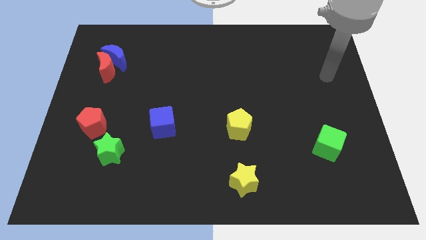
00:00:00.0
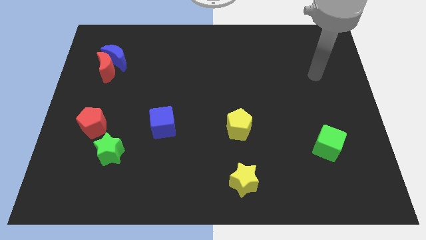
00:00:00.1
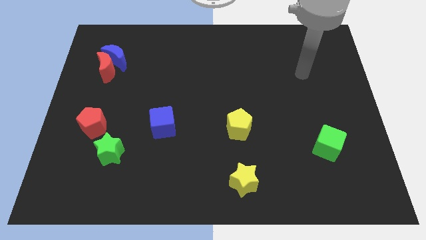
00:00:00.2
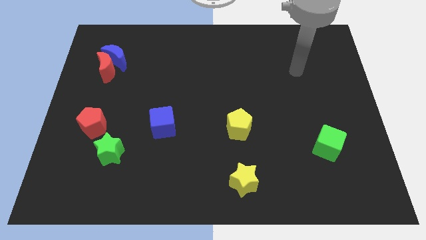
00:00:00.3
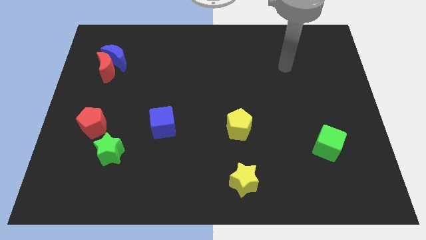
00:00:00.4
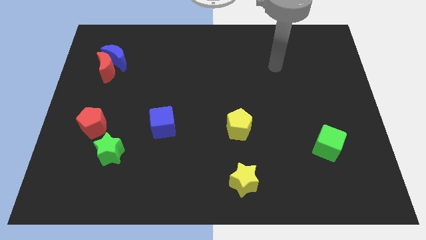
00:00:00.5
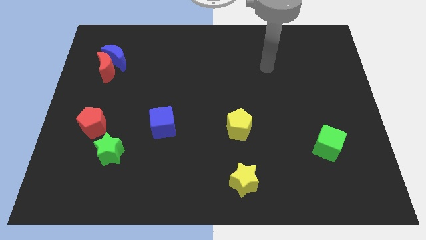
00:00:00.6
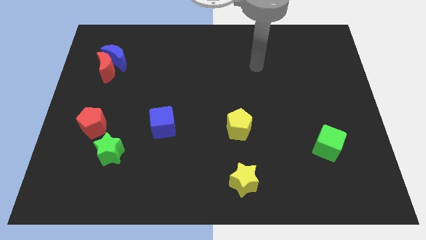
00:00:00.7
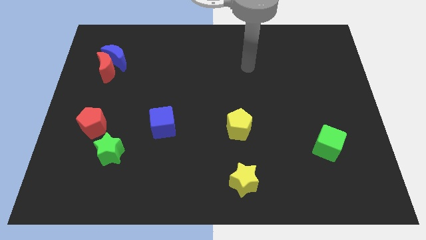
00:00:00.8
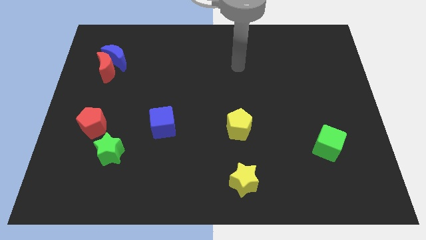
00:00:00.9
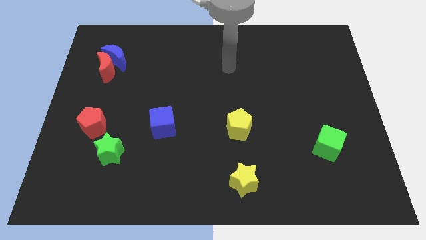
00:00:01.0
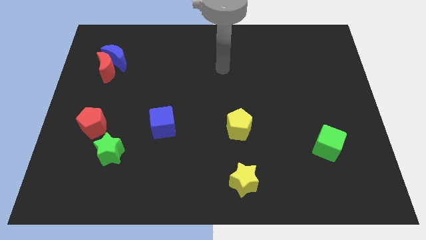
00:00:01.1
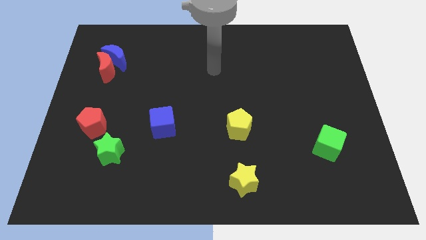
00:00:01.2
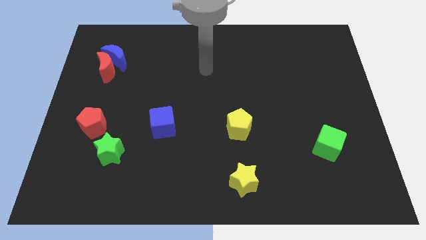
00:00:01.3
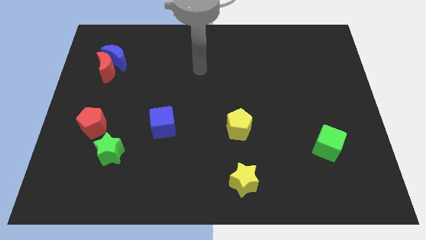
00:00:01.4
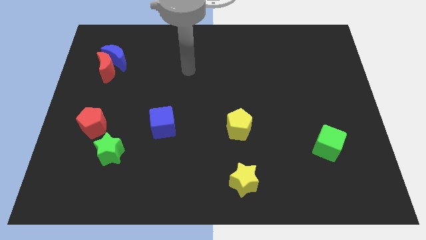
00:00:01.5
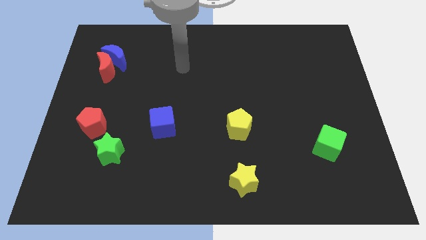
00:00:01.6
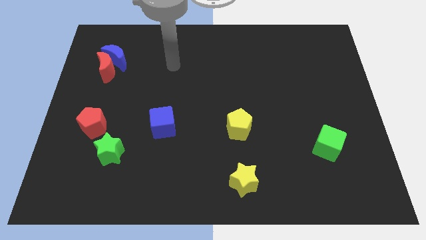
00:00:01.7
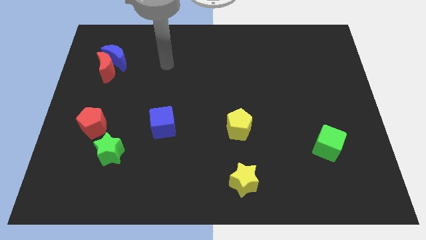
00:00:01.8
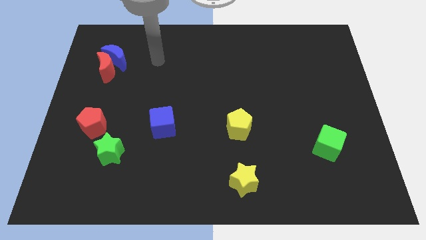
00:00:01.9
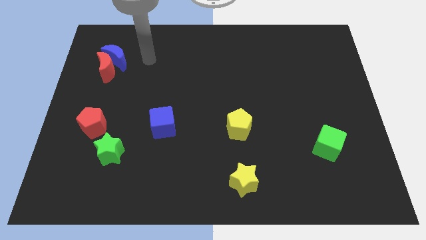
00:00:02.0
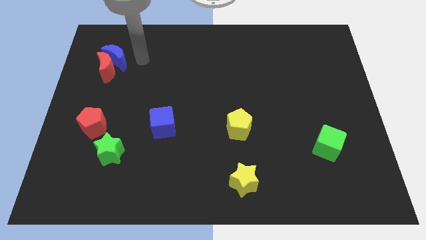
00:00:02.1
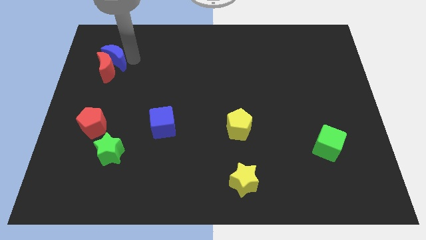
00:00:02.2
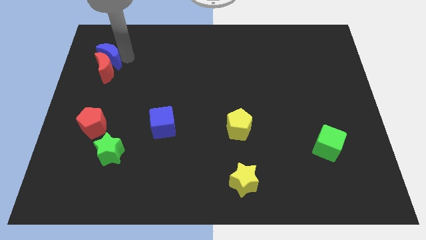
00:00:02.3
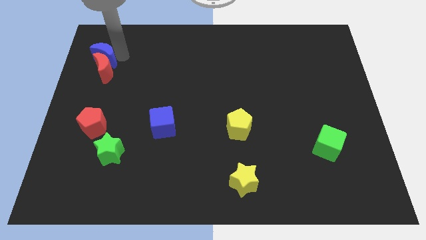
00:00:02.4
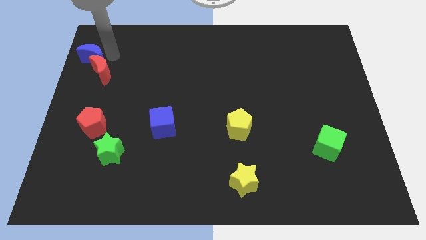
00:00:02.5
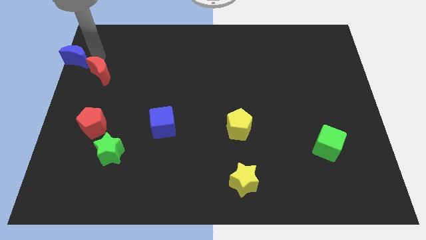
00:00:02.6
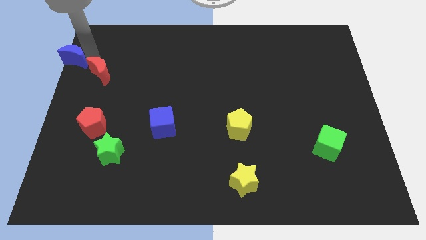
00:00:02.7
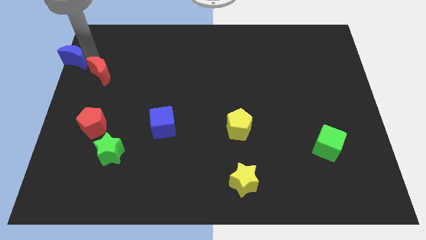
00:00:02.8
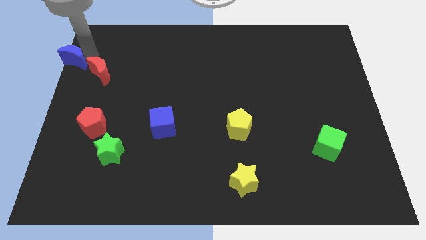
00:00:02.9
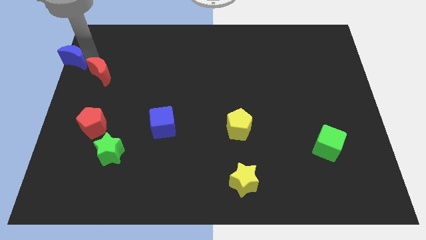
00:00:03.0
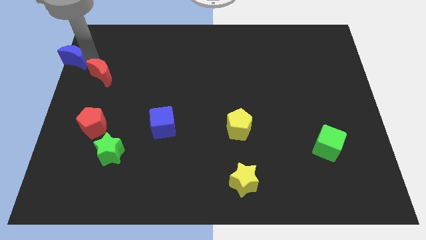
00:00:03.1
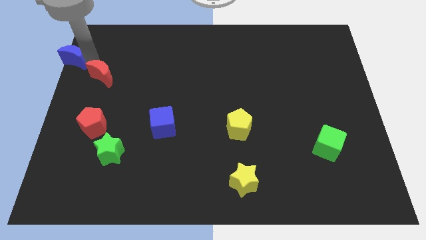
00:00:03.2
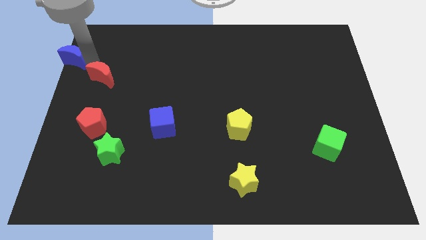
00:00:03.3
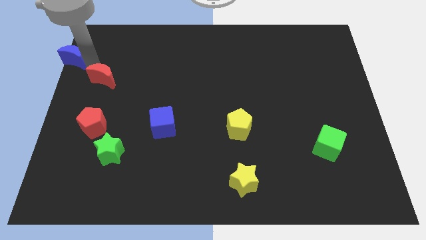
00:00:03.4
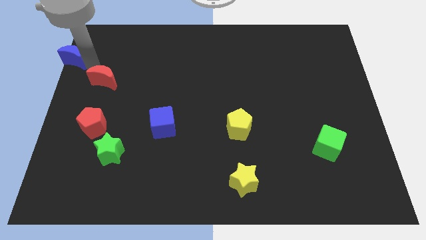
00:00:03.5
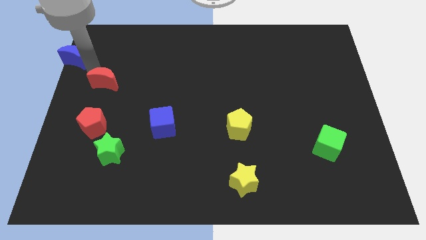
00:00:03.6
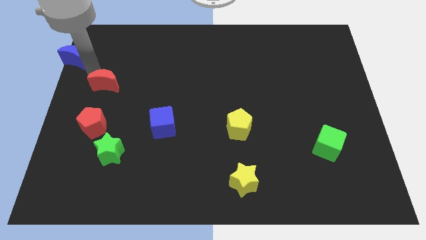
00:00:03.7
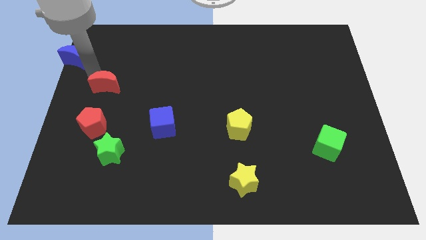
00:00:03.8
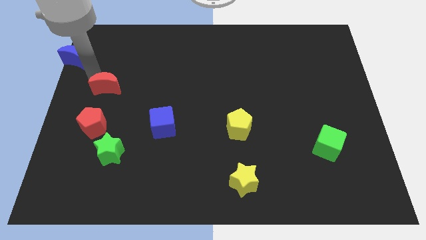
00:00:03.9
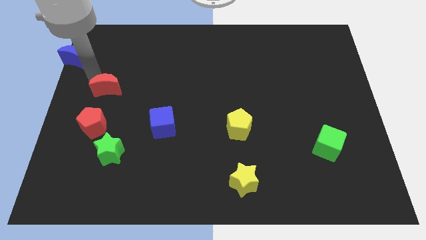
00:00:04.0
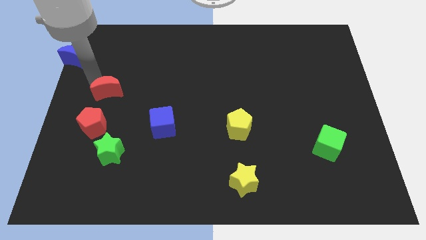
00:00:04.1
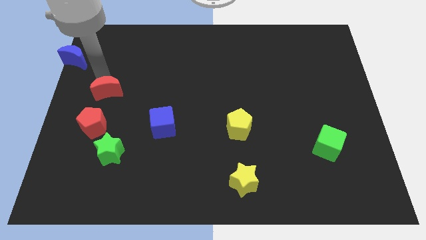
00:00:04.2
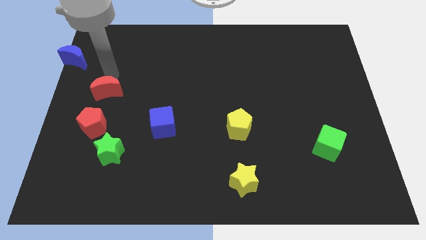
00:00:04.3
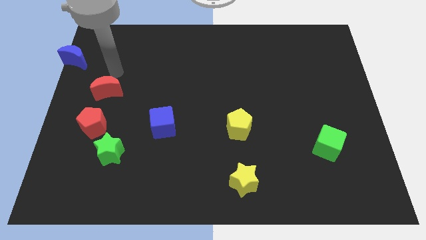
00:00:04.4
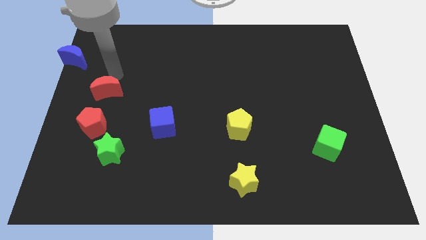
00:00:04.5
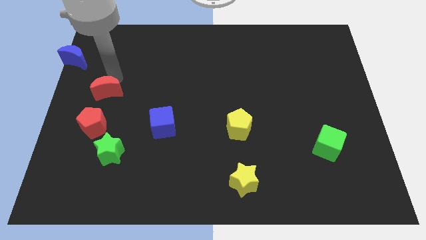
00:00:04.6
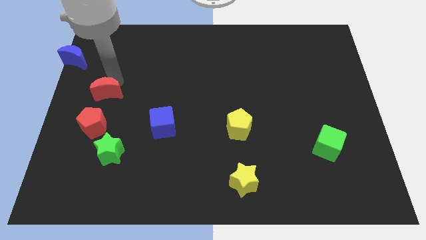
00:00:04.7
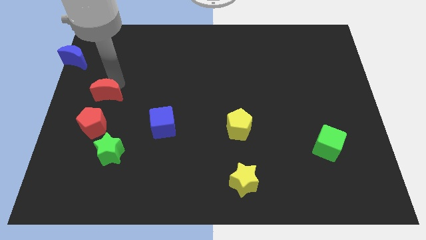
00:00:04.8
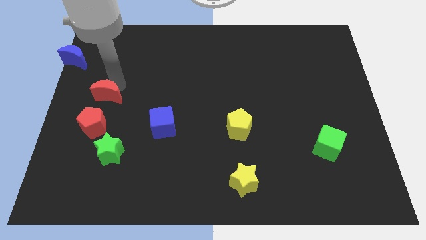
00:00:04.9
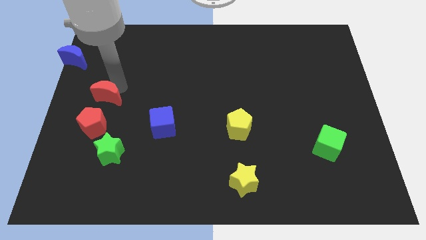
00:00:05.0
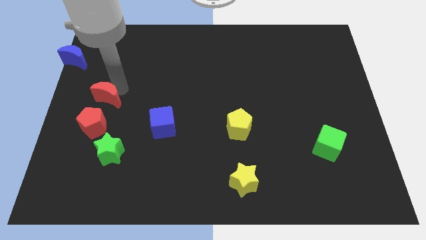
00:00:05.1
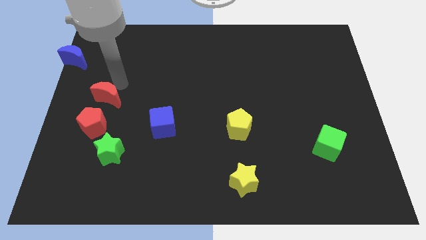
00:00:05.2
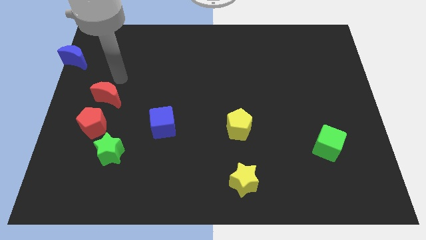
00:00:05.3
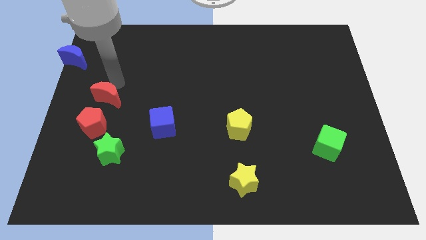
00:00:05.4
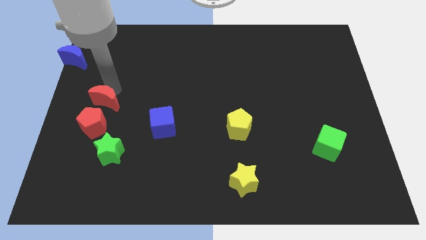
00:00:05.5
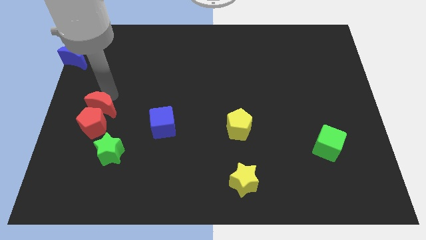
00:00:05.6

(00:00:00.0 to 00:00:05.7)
move the red moon to the red pentagon

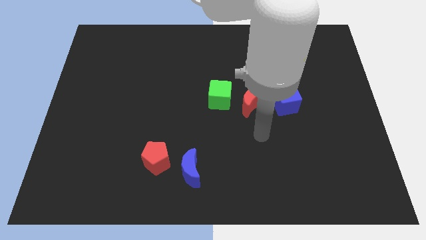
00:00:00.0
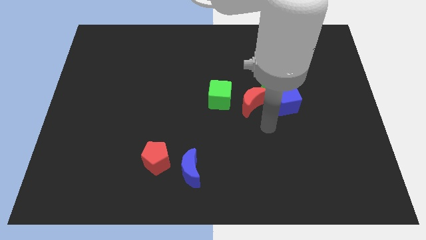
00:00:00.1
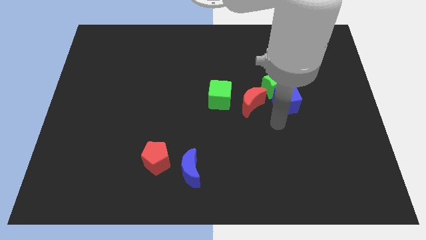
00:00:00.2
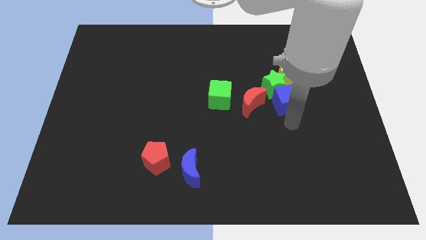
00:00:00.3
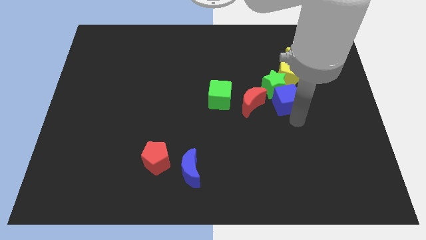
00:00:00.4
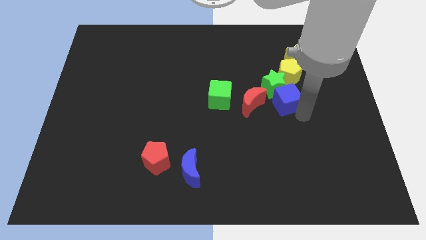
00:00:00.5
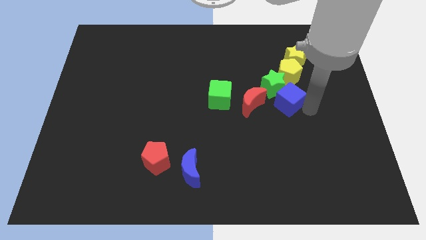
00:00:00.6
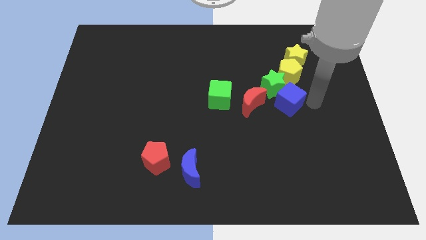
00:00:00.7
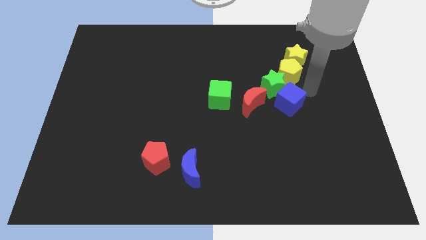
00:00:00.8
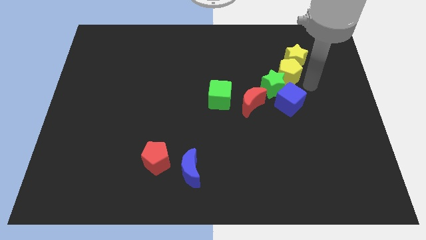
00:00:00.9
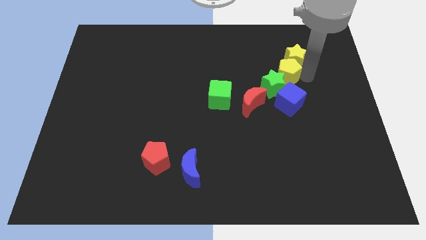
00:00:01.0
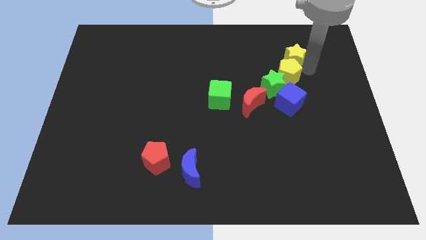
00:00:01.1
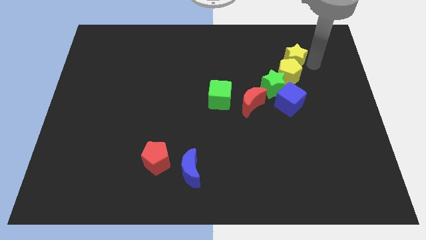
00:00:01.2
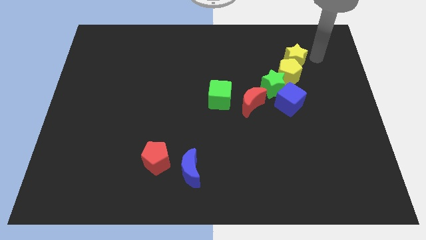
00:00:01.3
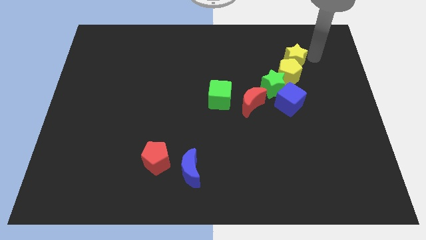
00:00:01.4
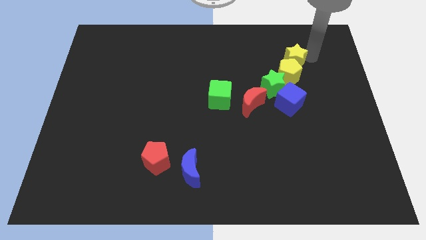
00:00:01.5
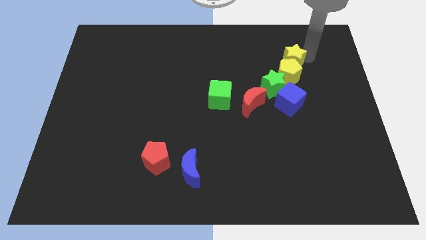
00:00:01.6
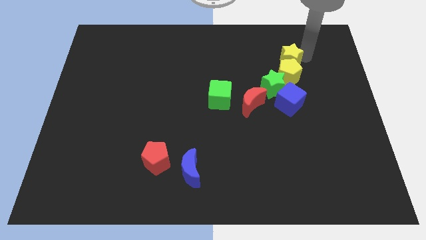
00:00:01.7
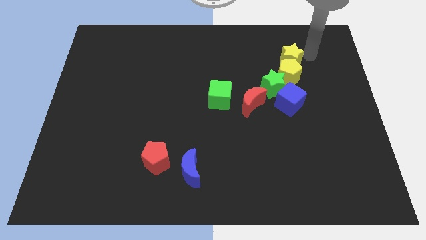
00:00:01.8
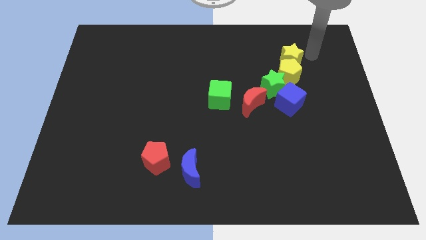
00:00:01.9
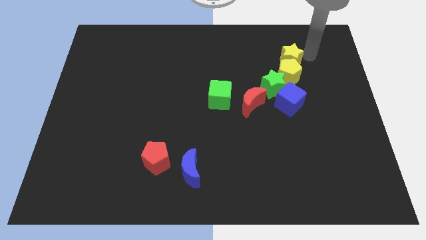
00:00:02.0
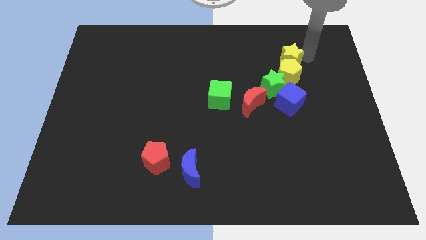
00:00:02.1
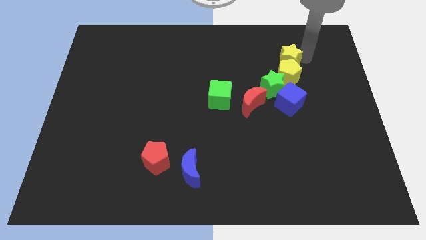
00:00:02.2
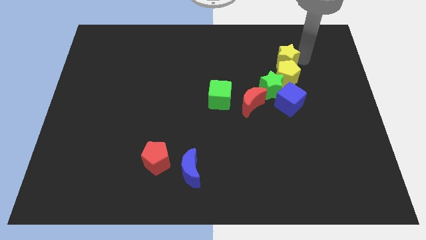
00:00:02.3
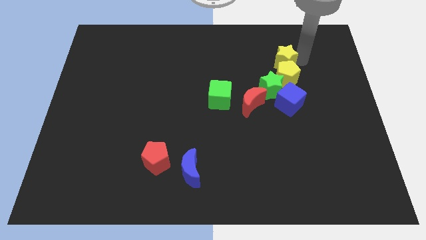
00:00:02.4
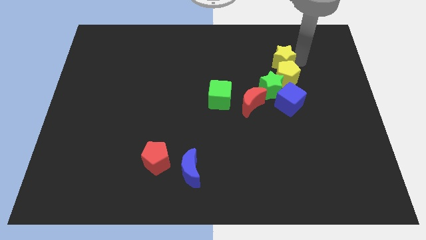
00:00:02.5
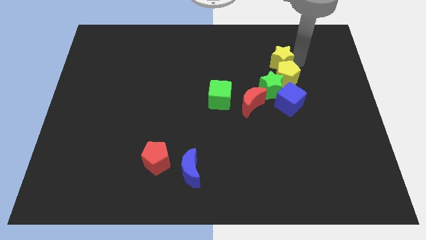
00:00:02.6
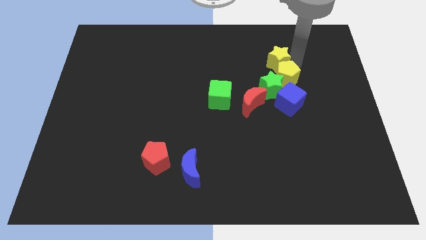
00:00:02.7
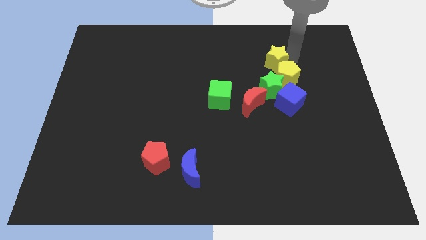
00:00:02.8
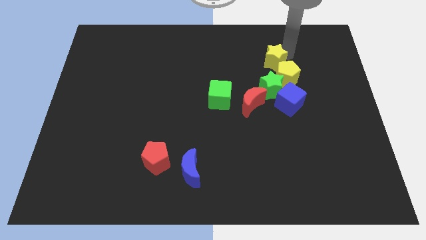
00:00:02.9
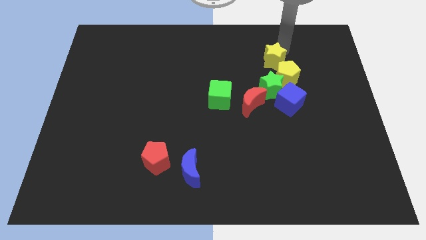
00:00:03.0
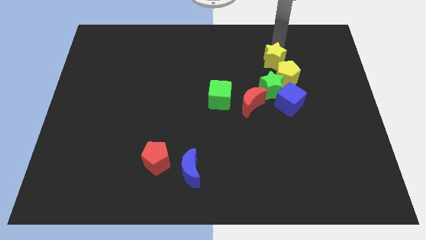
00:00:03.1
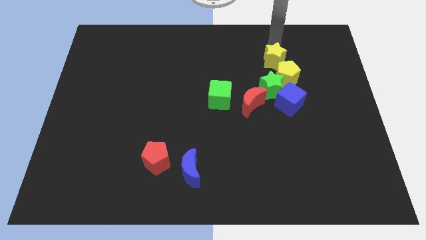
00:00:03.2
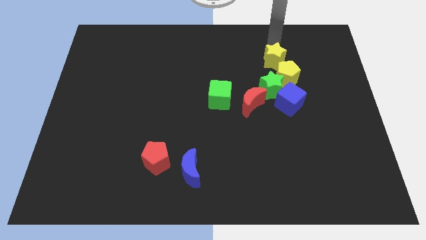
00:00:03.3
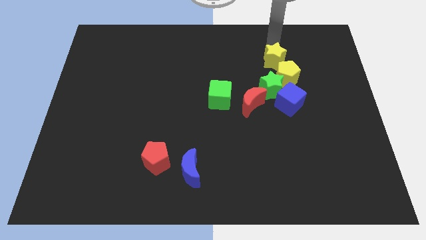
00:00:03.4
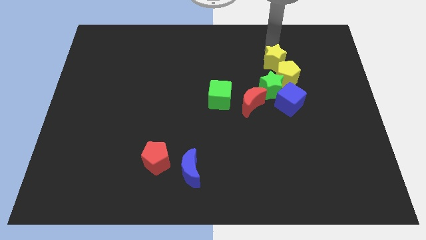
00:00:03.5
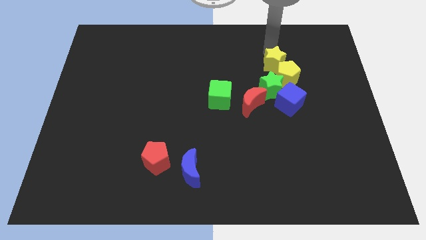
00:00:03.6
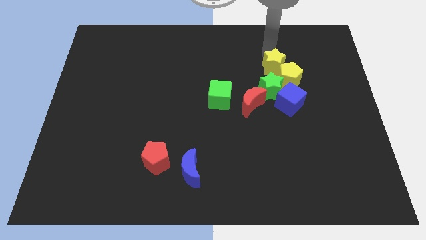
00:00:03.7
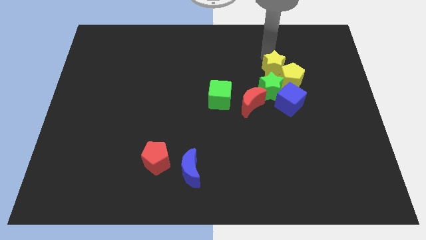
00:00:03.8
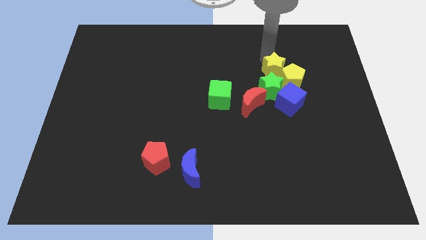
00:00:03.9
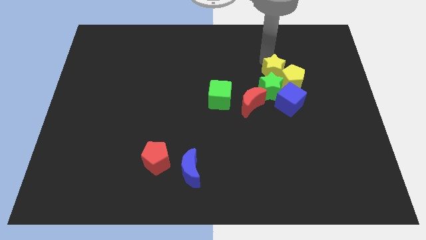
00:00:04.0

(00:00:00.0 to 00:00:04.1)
put the yellow star close to the green star
